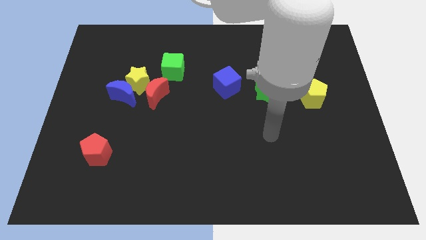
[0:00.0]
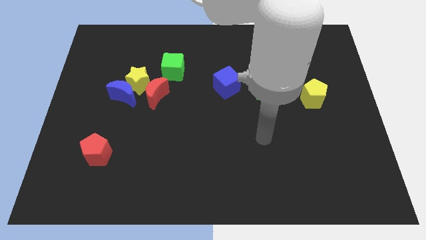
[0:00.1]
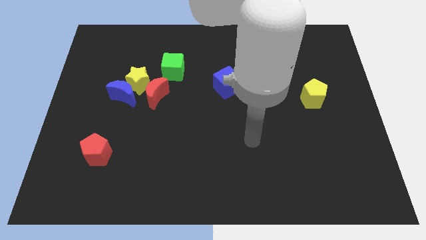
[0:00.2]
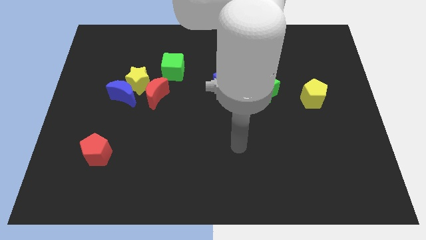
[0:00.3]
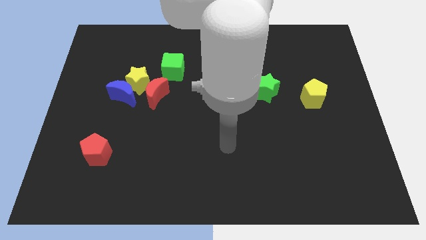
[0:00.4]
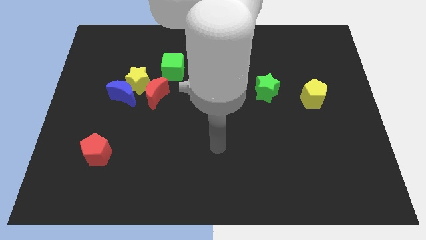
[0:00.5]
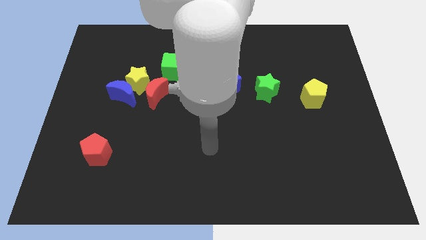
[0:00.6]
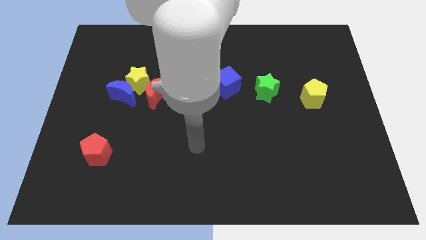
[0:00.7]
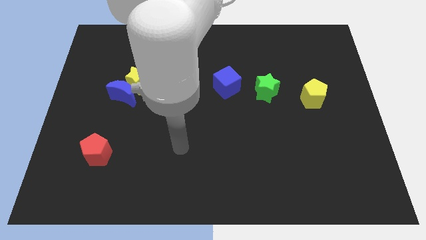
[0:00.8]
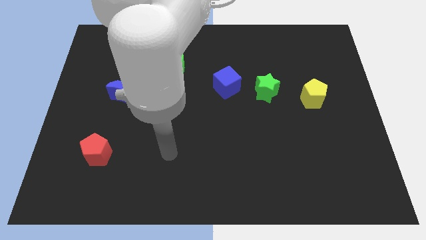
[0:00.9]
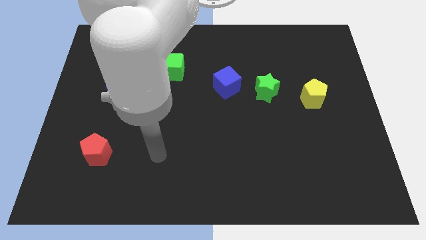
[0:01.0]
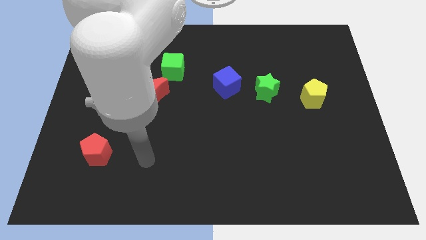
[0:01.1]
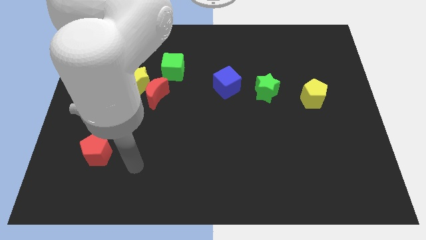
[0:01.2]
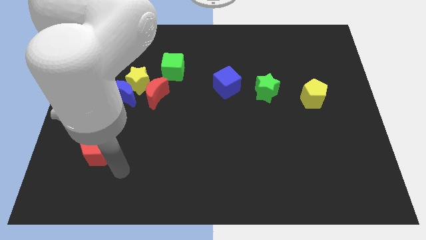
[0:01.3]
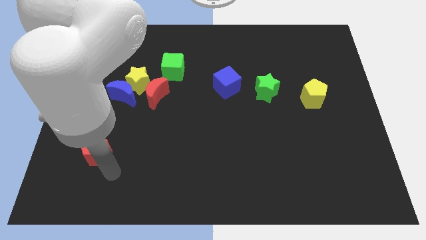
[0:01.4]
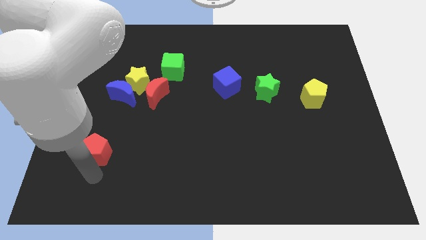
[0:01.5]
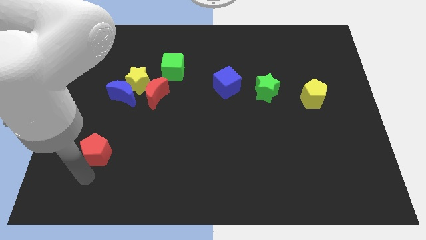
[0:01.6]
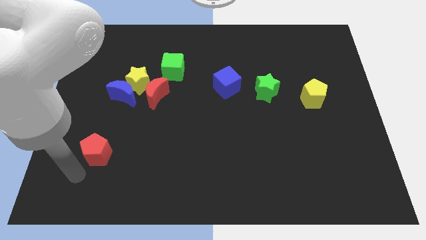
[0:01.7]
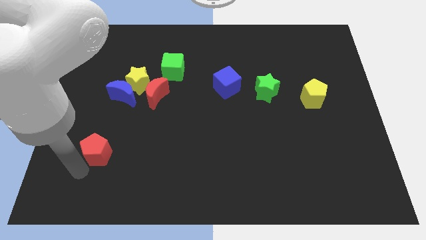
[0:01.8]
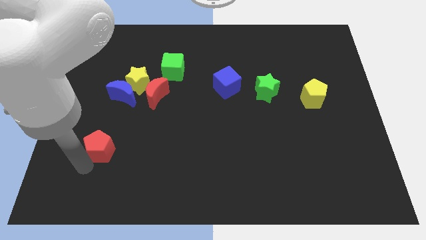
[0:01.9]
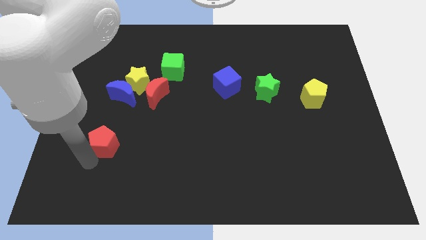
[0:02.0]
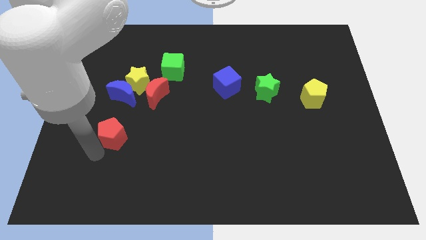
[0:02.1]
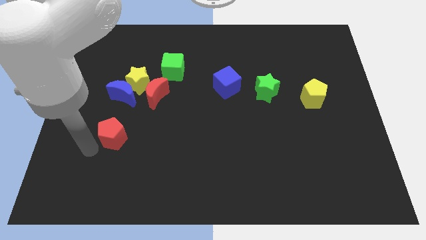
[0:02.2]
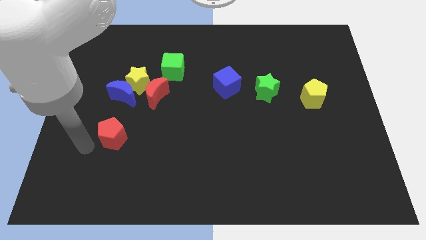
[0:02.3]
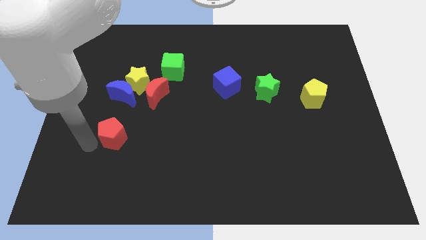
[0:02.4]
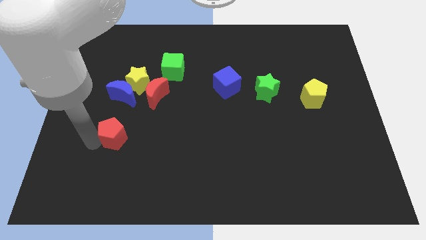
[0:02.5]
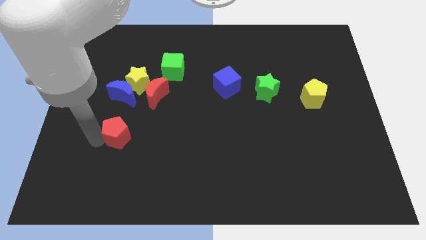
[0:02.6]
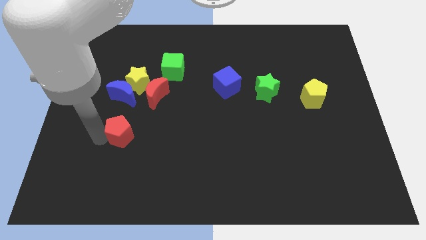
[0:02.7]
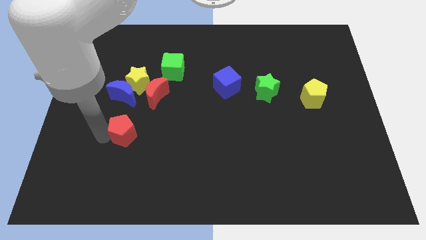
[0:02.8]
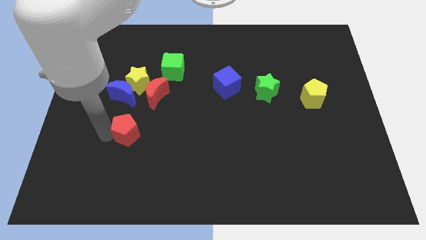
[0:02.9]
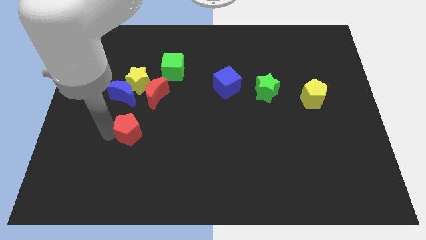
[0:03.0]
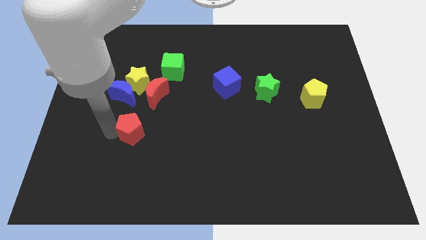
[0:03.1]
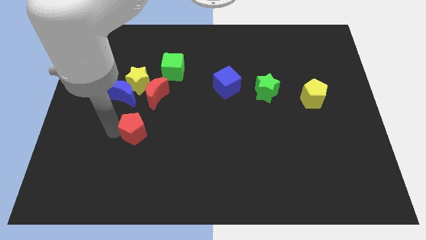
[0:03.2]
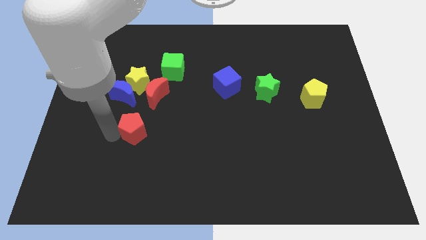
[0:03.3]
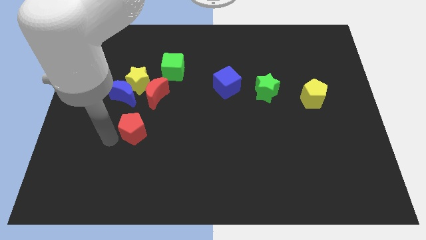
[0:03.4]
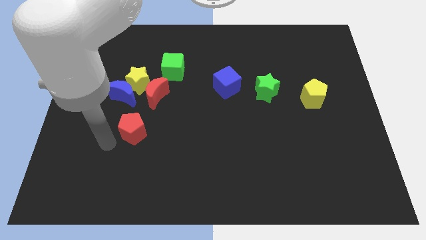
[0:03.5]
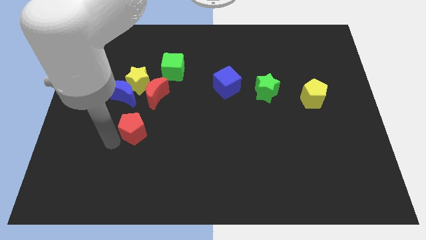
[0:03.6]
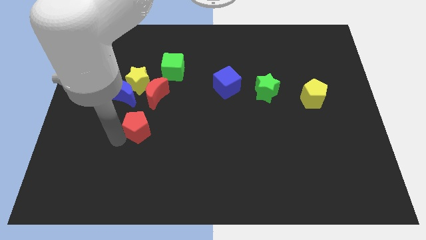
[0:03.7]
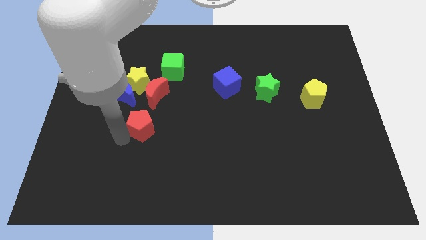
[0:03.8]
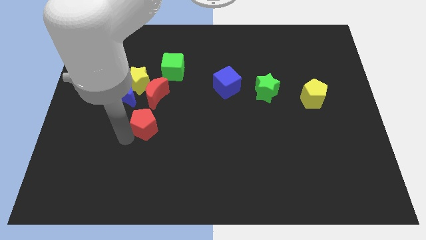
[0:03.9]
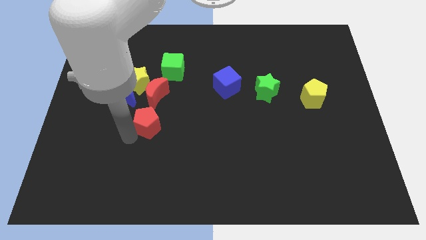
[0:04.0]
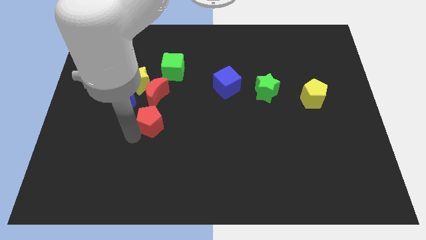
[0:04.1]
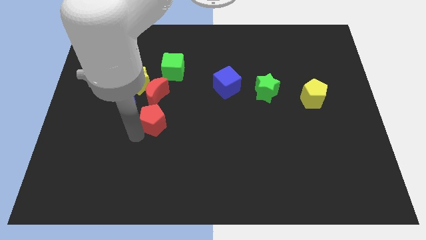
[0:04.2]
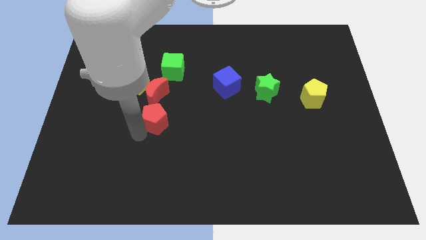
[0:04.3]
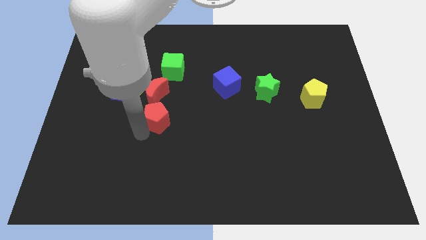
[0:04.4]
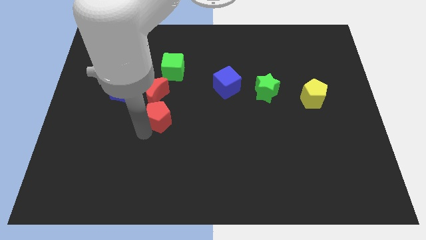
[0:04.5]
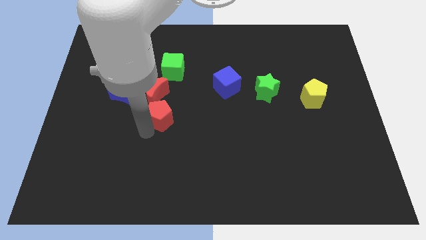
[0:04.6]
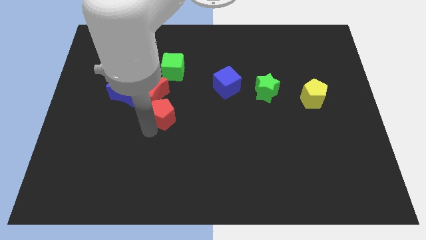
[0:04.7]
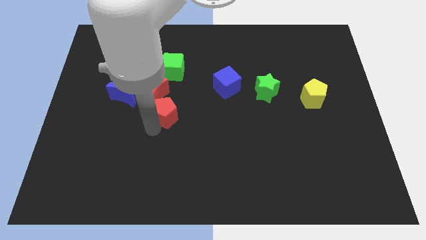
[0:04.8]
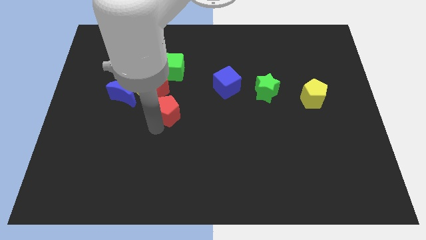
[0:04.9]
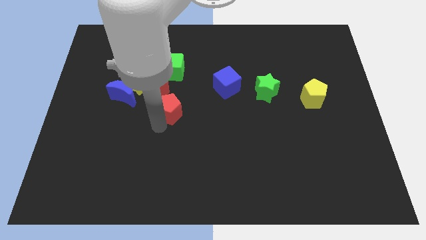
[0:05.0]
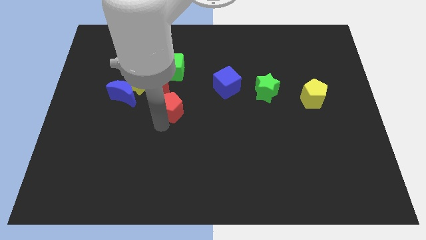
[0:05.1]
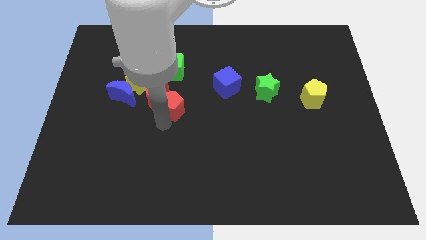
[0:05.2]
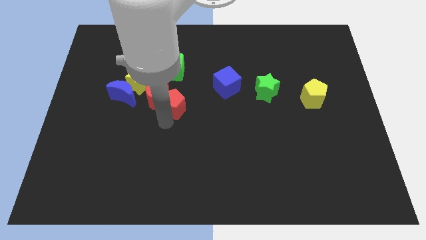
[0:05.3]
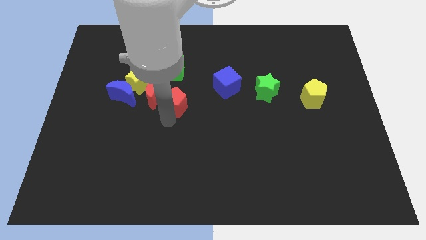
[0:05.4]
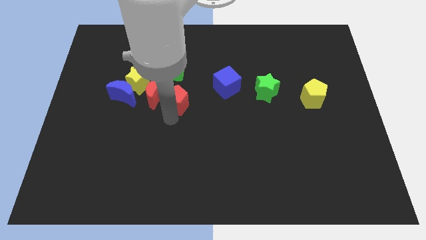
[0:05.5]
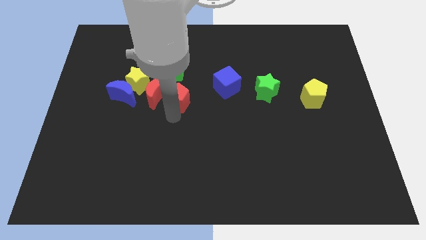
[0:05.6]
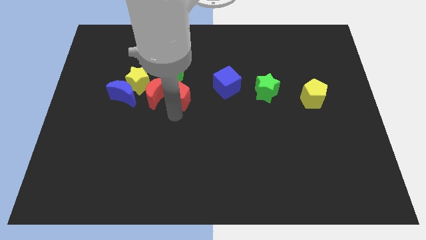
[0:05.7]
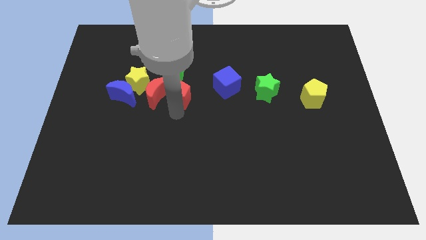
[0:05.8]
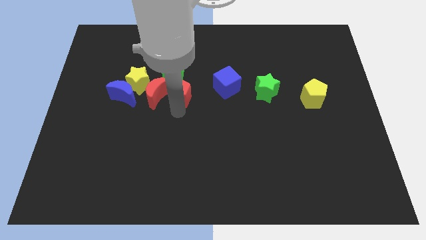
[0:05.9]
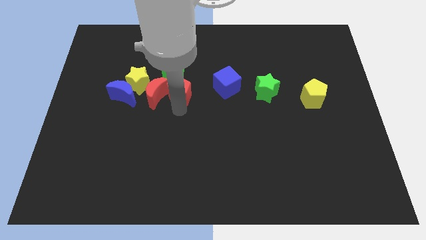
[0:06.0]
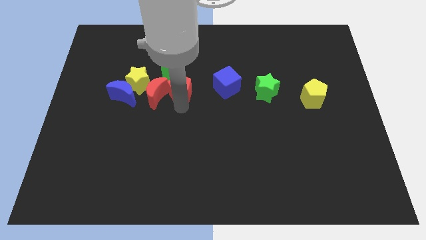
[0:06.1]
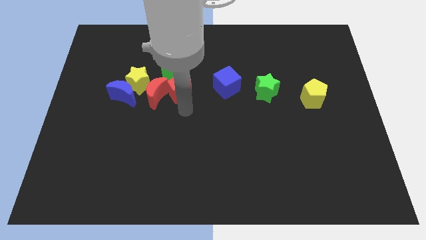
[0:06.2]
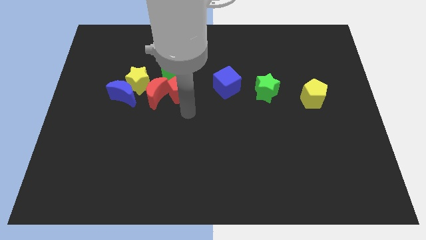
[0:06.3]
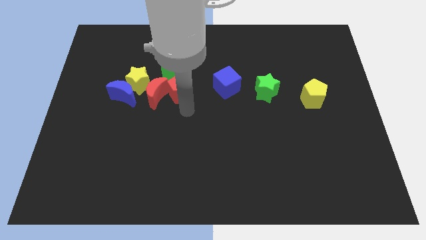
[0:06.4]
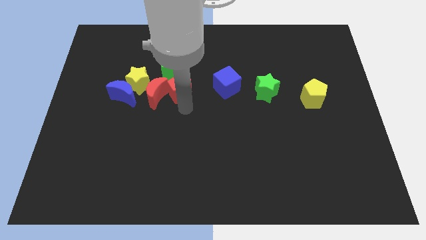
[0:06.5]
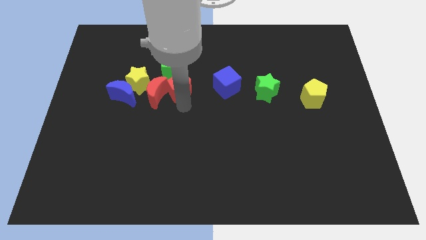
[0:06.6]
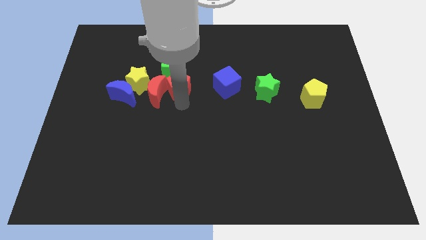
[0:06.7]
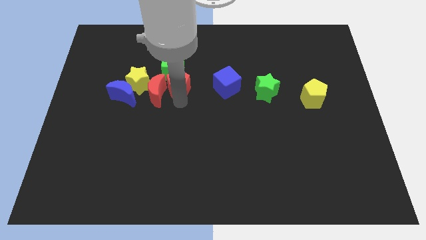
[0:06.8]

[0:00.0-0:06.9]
push the red pentagon to the green cube
